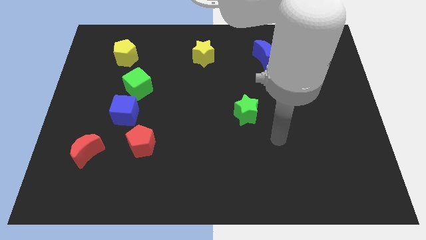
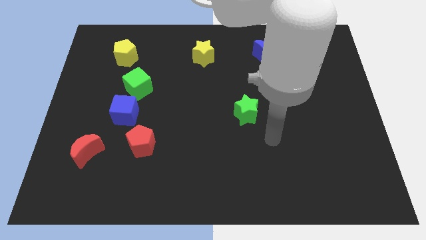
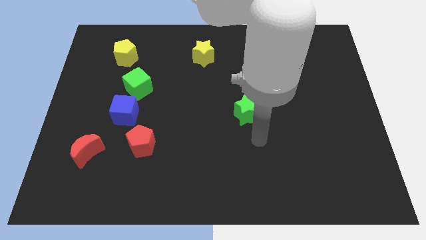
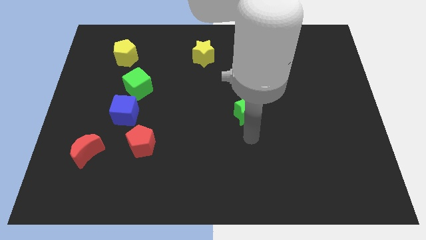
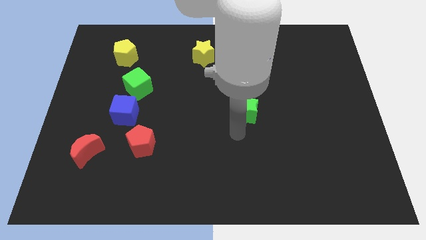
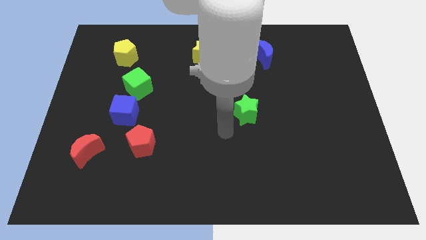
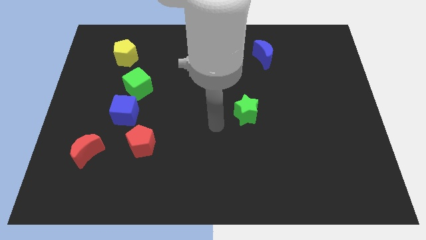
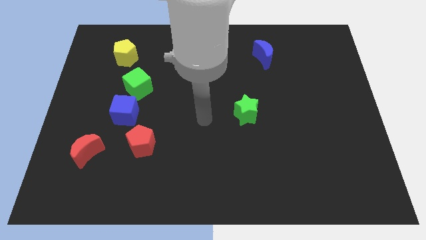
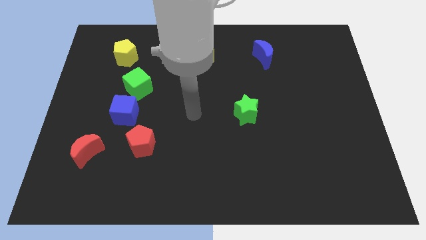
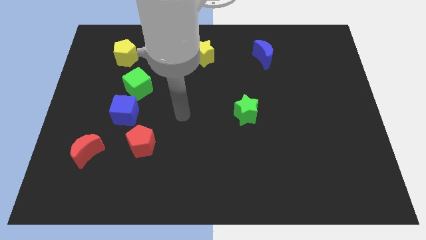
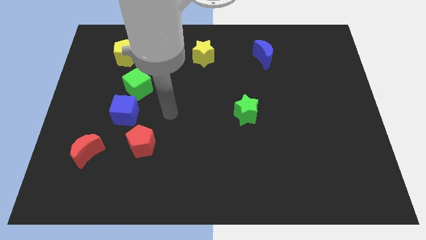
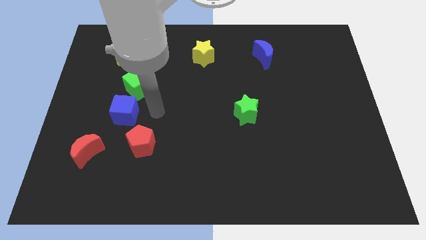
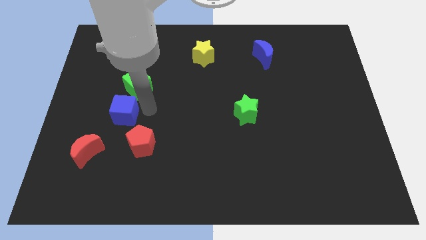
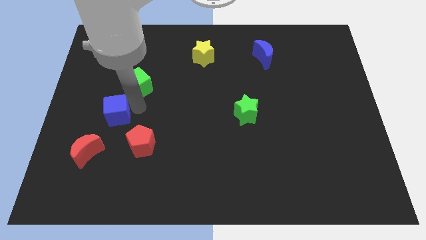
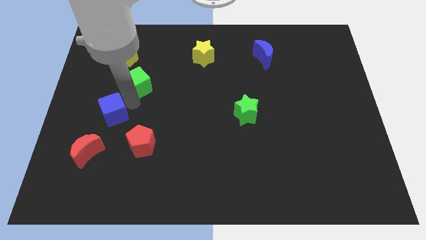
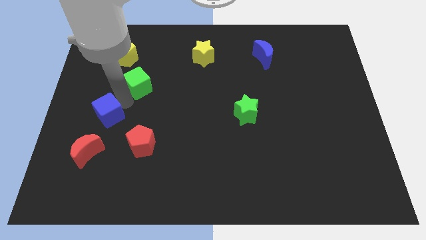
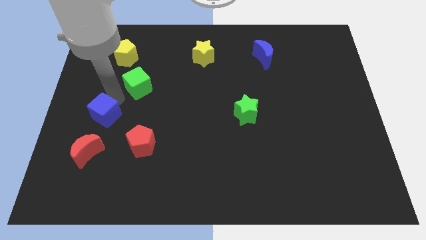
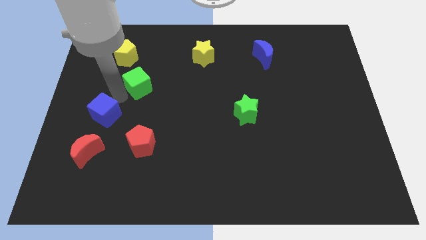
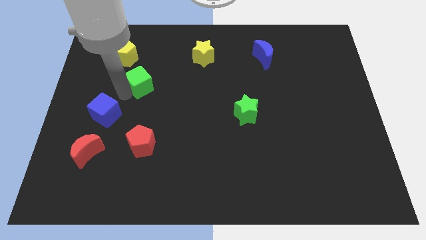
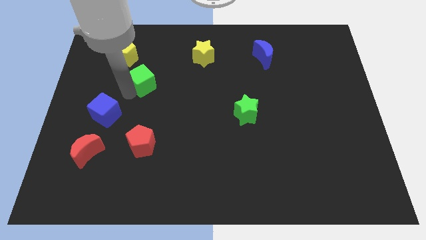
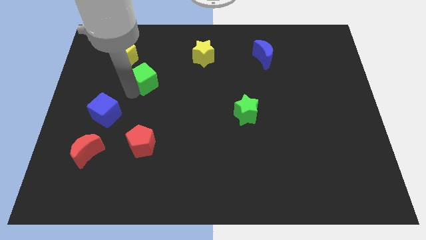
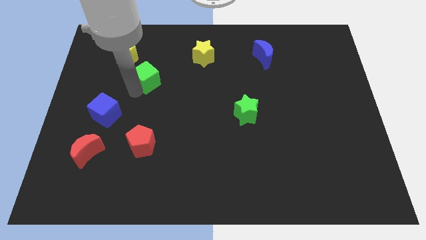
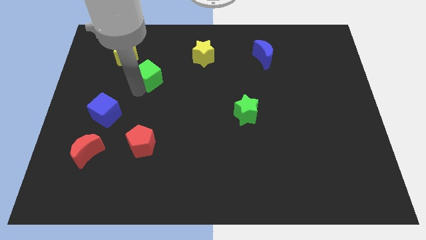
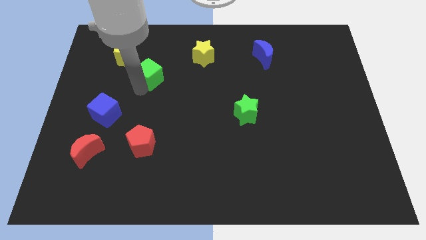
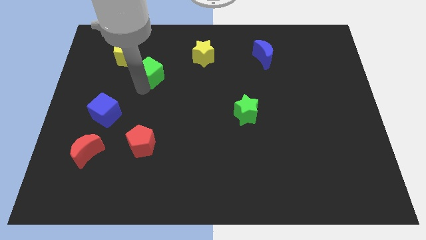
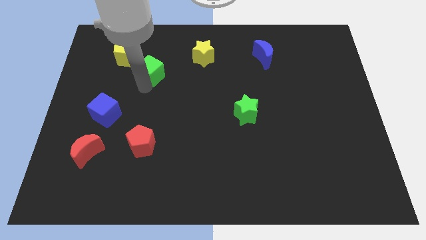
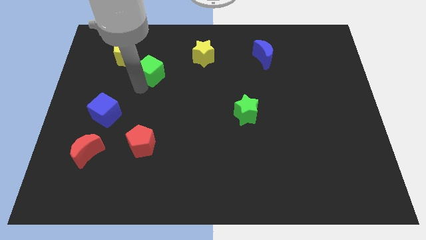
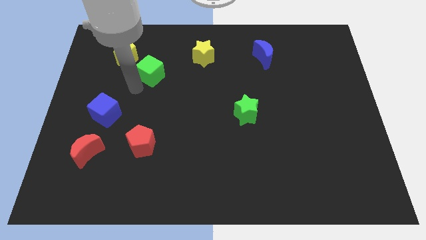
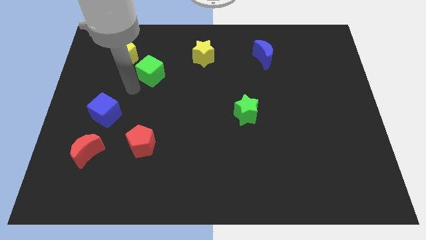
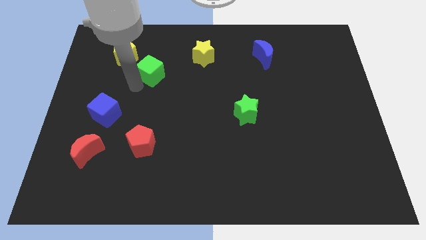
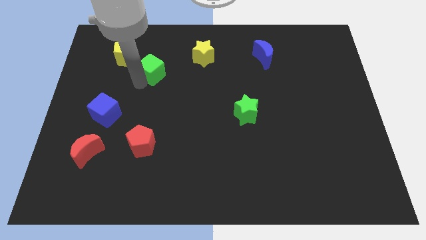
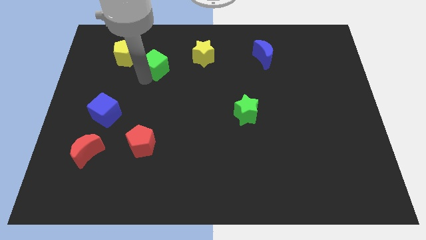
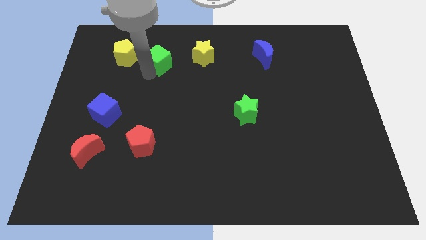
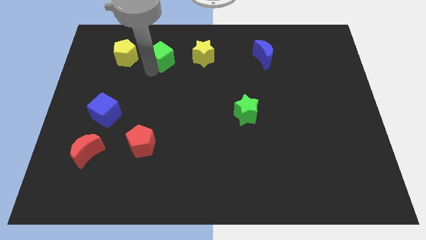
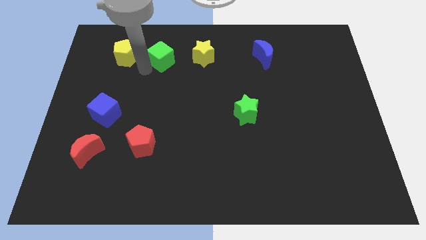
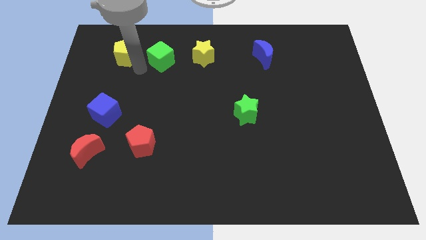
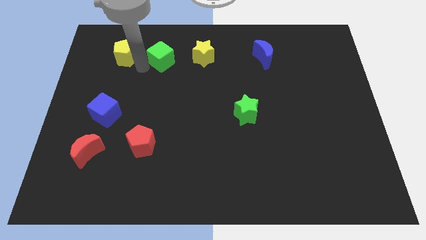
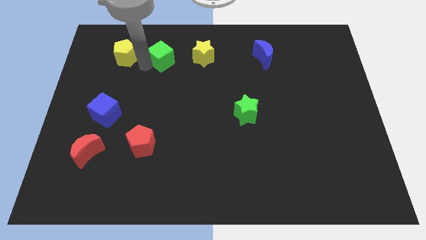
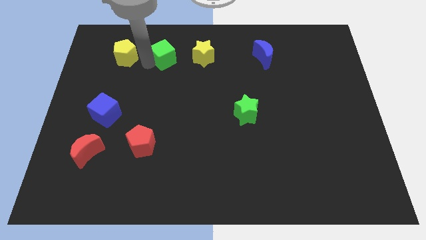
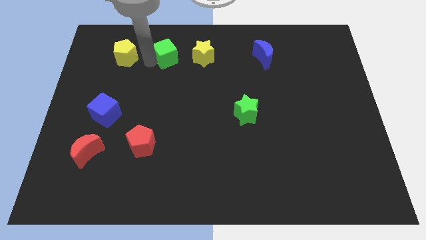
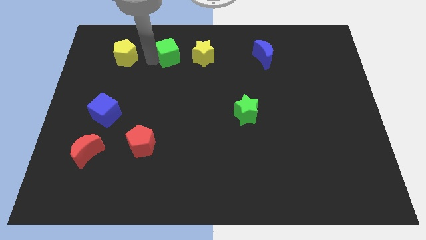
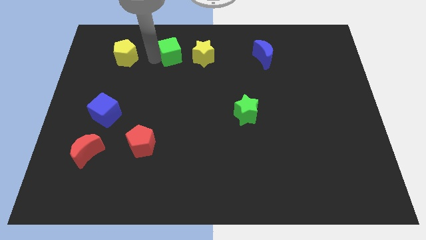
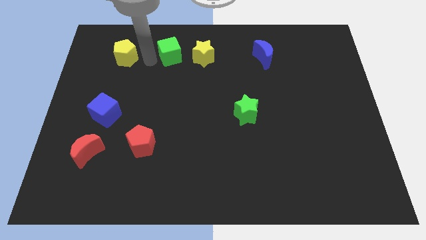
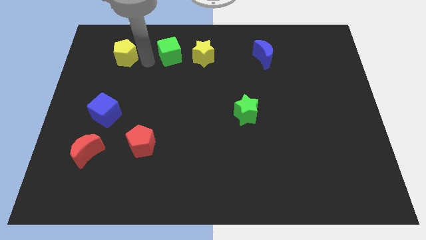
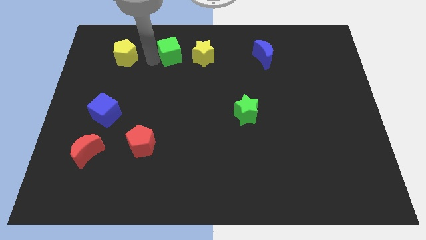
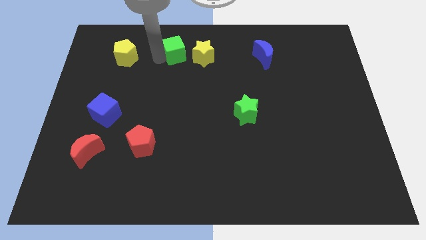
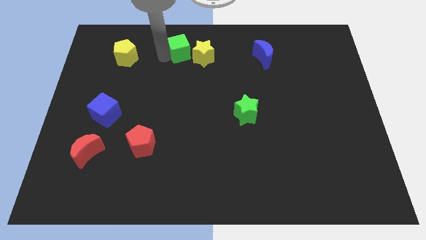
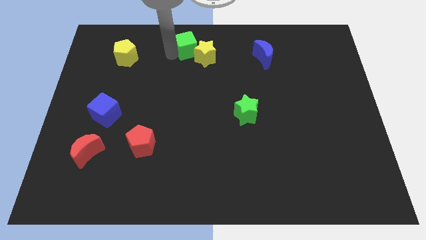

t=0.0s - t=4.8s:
push the green cube to the towards your base

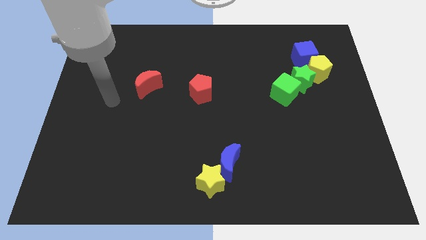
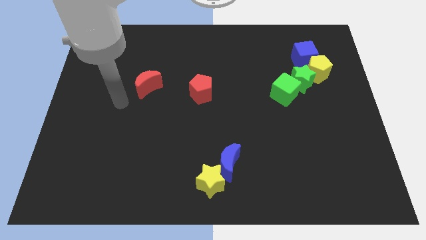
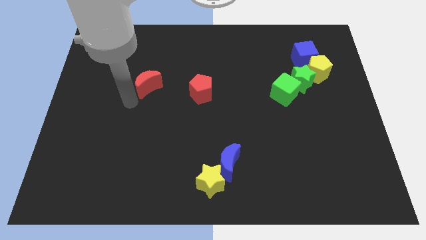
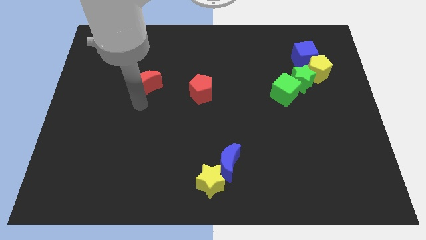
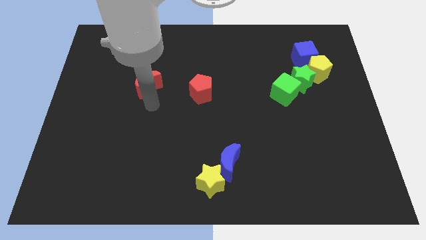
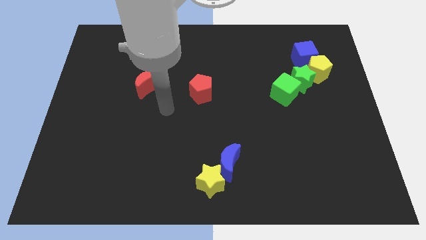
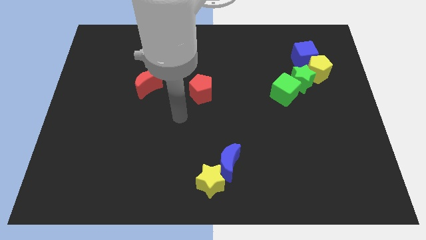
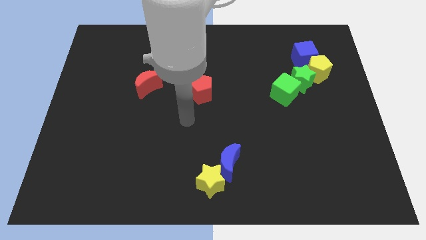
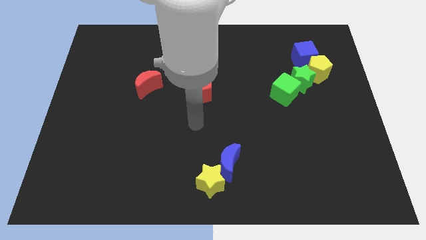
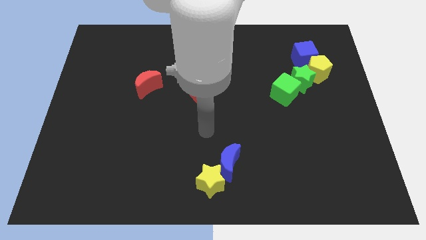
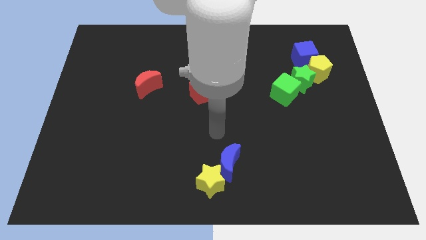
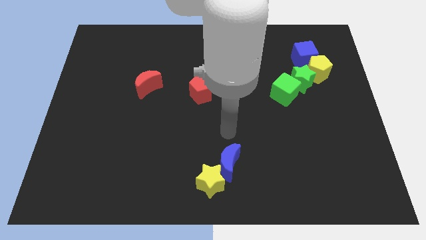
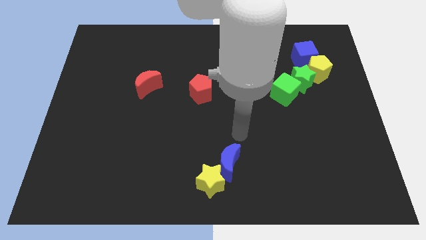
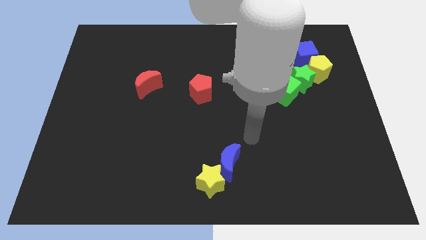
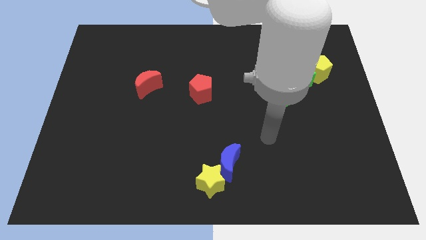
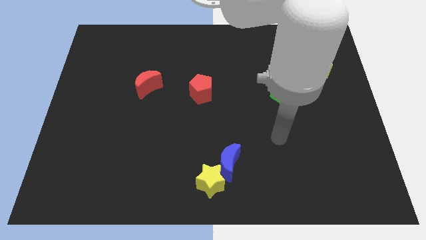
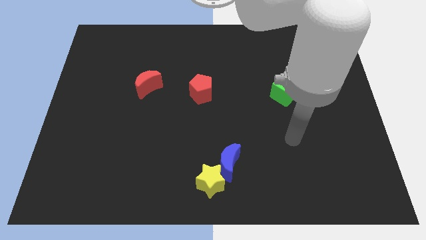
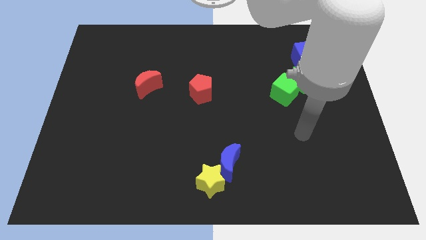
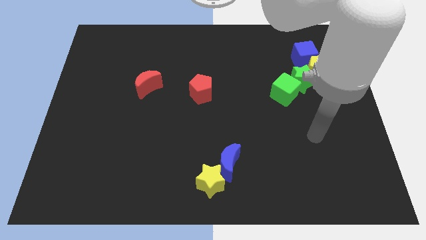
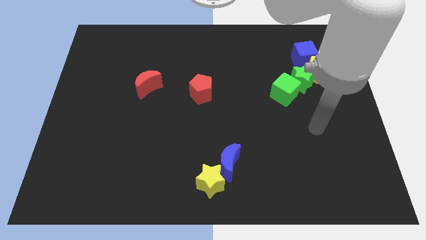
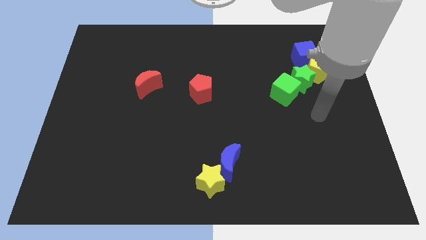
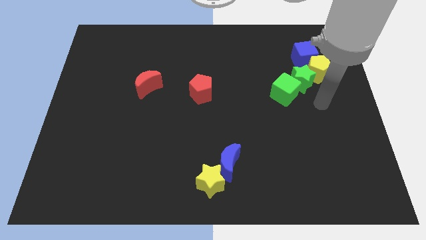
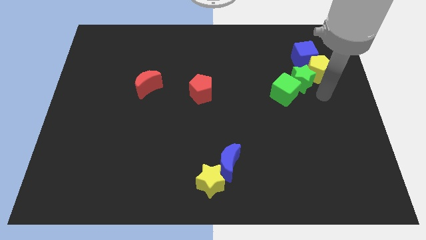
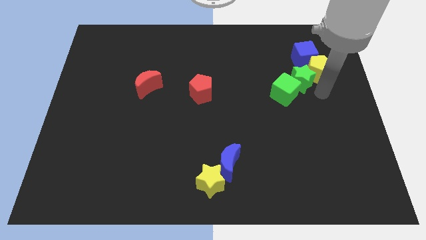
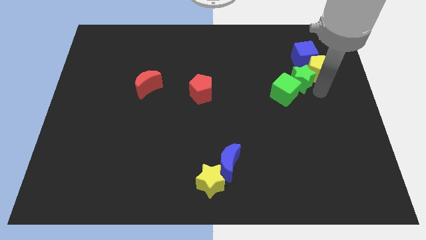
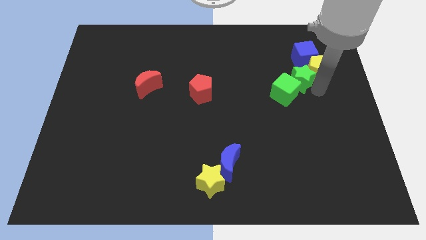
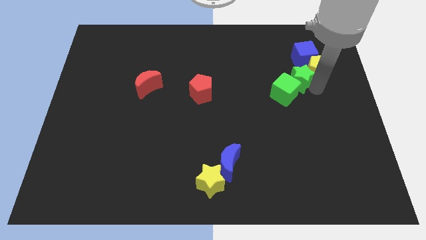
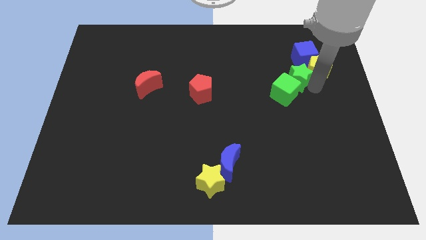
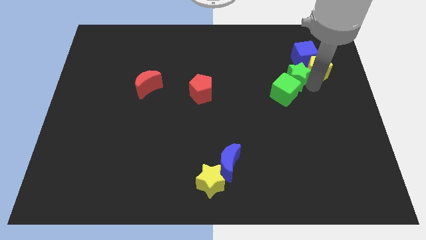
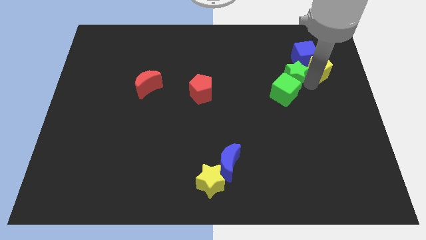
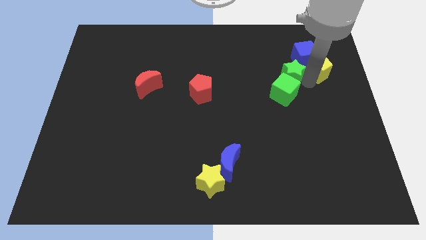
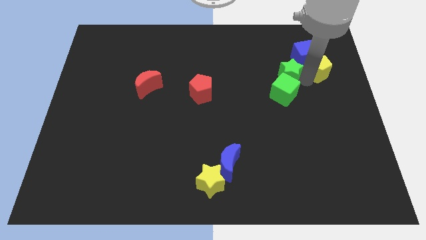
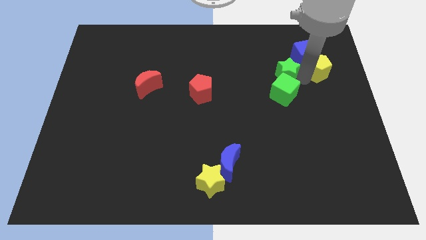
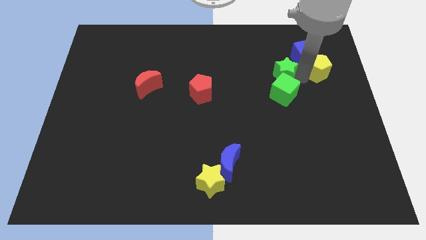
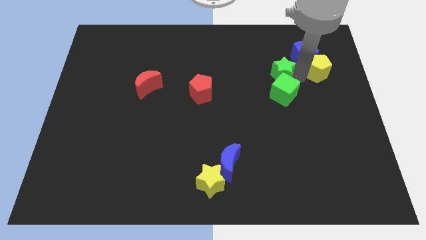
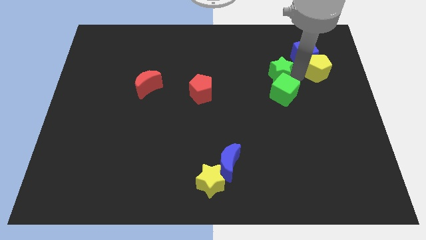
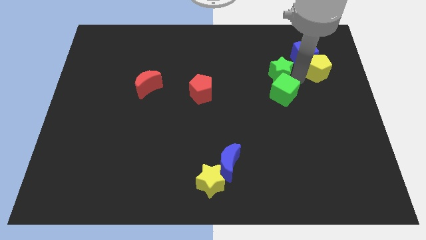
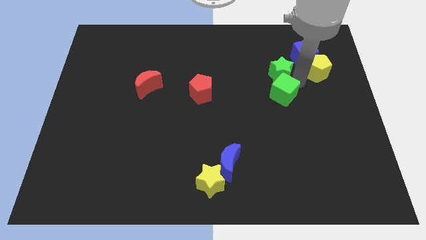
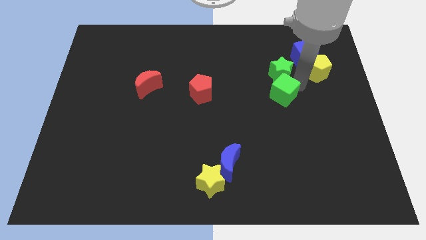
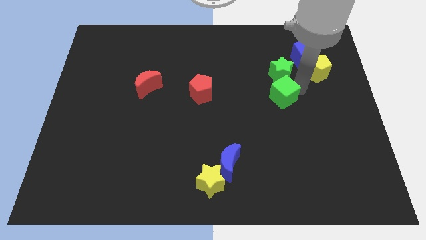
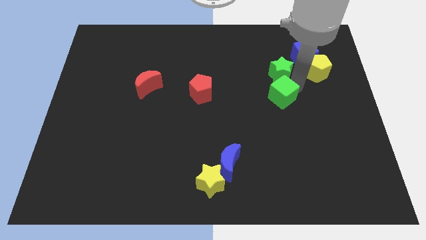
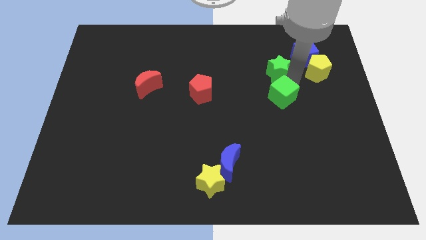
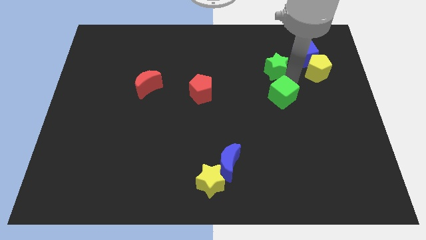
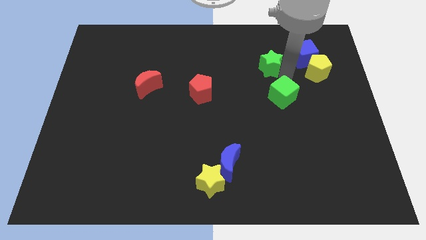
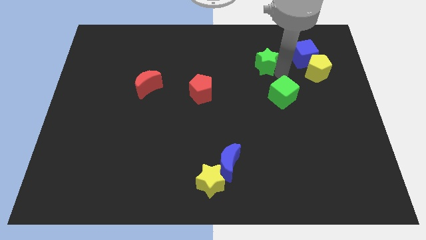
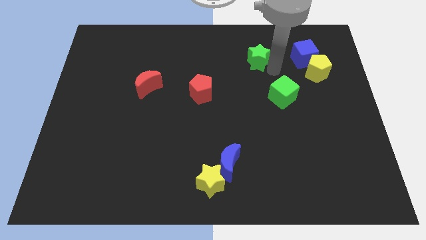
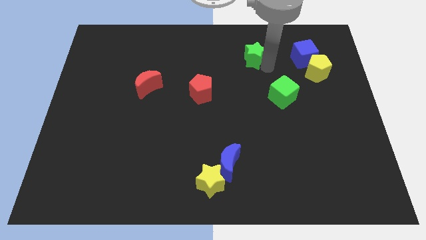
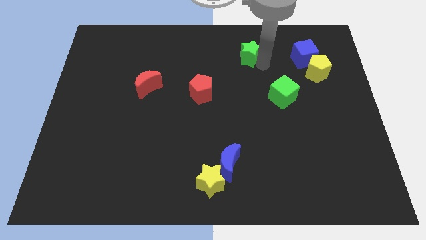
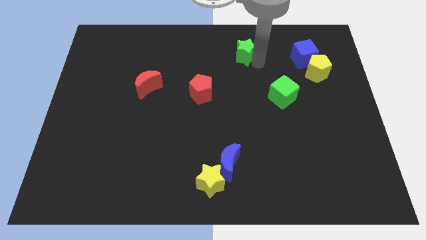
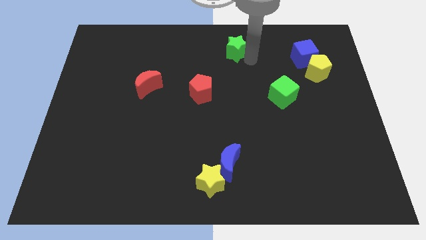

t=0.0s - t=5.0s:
put the green star to the towards your base
